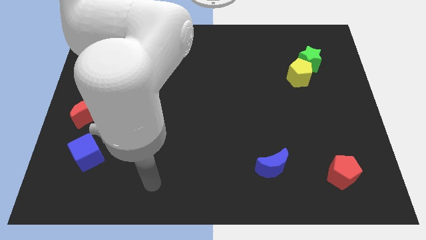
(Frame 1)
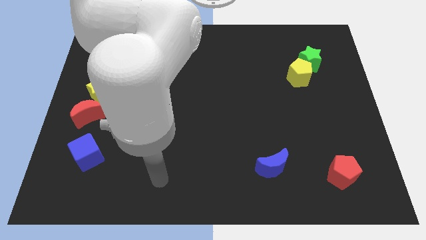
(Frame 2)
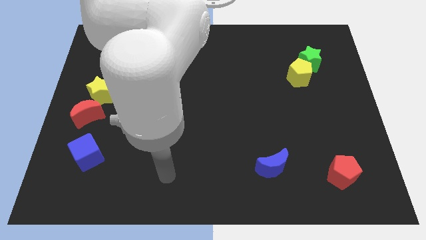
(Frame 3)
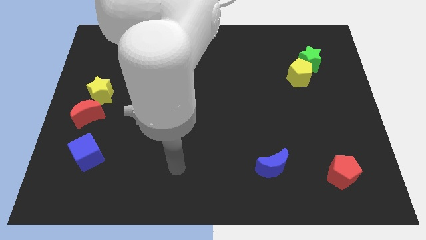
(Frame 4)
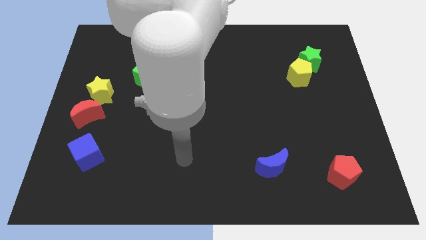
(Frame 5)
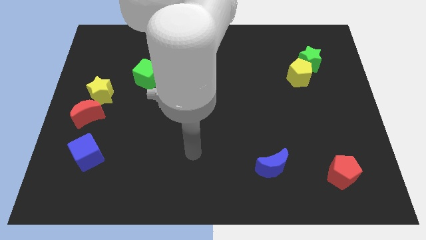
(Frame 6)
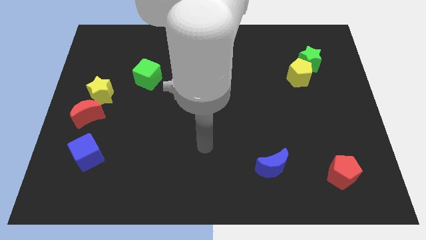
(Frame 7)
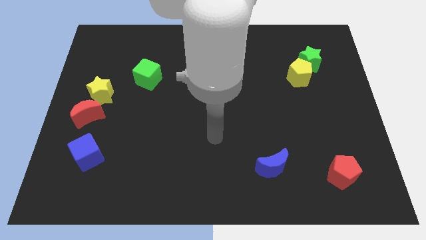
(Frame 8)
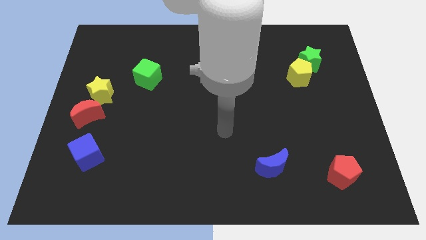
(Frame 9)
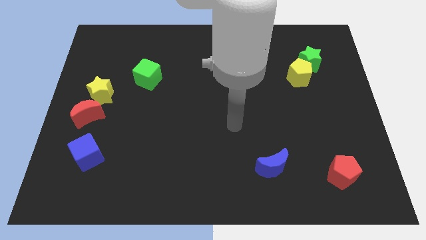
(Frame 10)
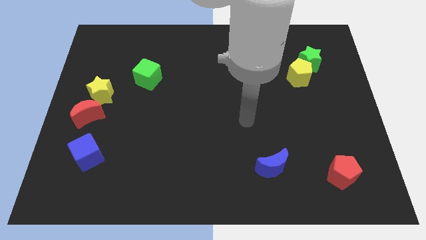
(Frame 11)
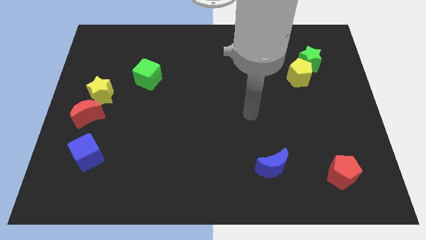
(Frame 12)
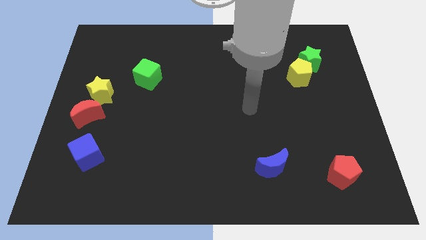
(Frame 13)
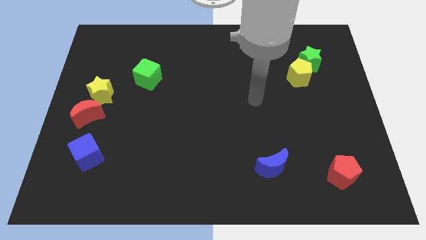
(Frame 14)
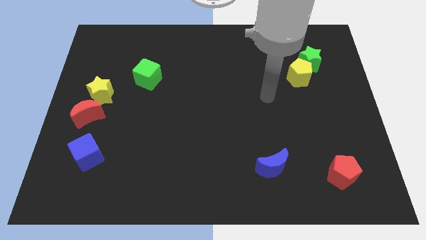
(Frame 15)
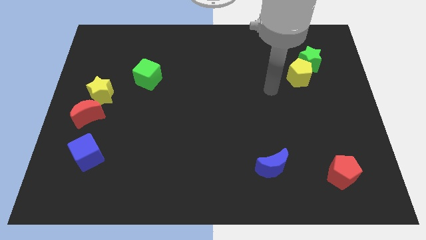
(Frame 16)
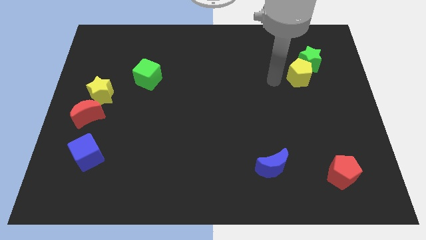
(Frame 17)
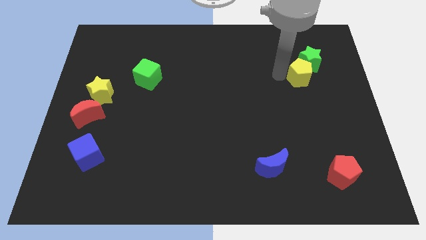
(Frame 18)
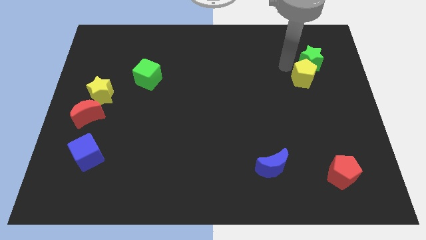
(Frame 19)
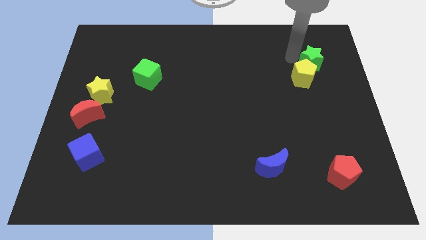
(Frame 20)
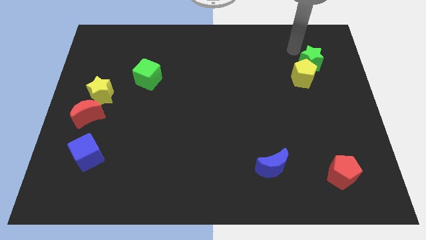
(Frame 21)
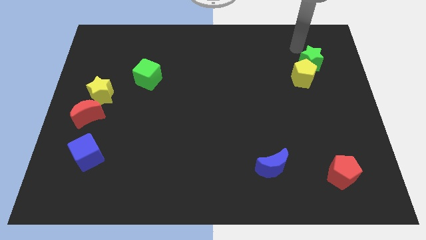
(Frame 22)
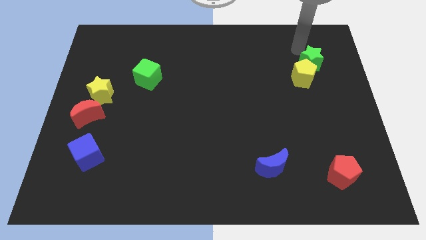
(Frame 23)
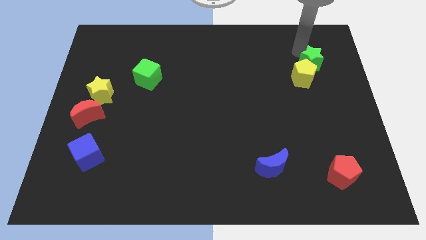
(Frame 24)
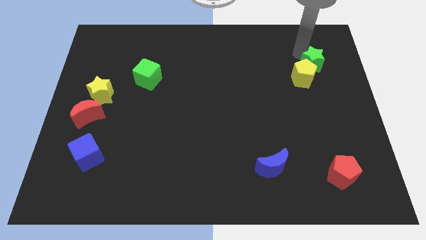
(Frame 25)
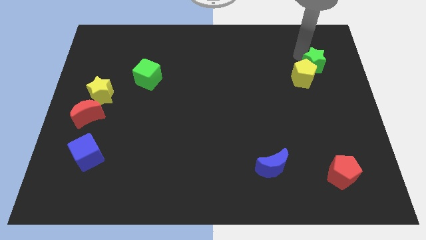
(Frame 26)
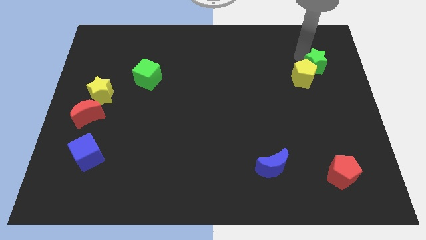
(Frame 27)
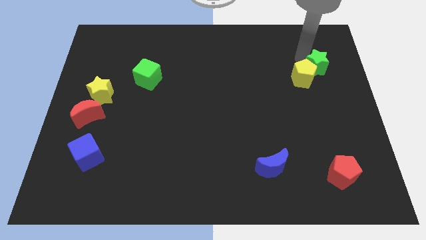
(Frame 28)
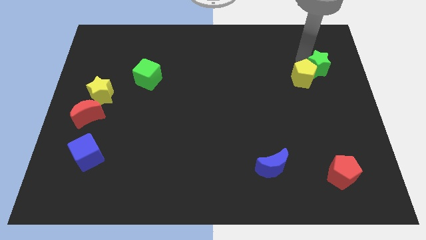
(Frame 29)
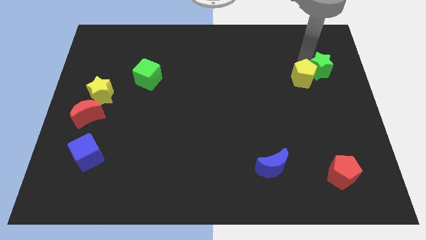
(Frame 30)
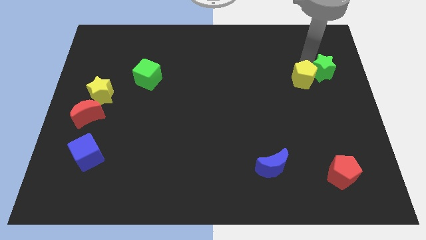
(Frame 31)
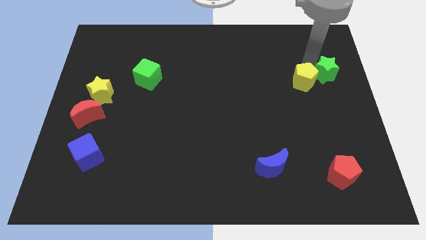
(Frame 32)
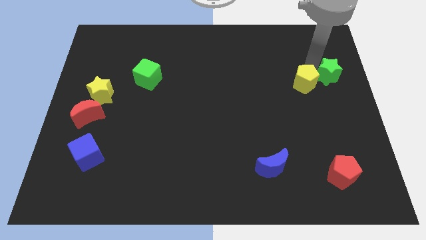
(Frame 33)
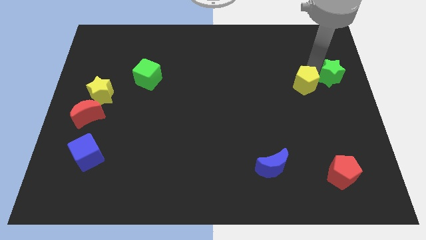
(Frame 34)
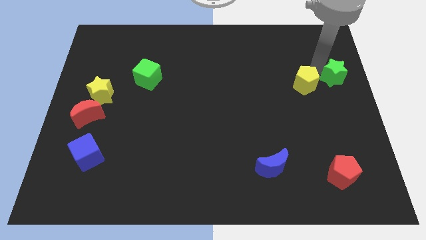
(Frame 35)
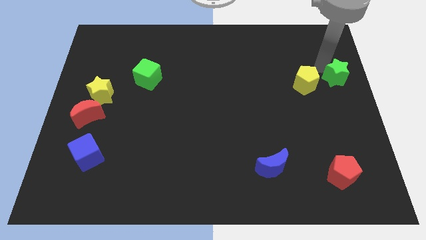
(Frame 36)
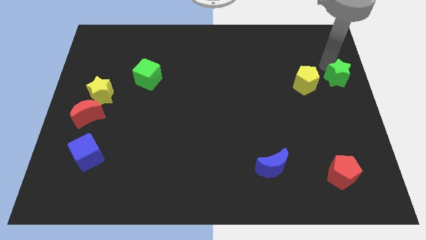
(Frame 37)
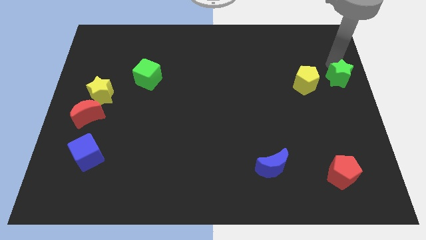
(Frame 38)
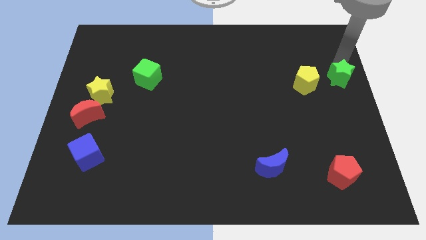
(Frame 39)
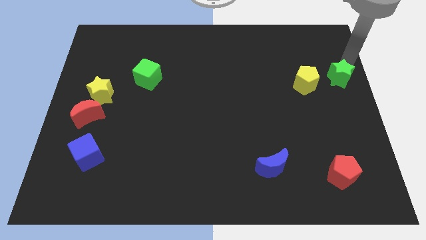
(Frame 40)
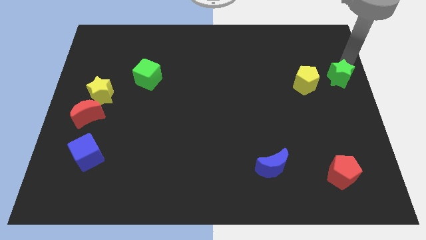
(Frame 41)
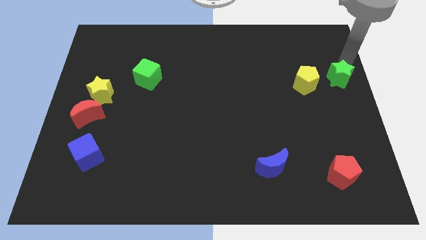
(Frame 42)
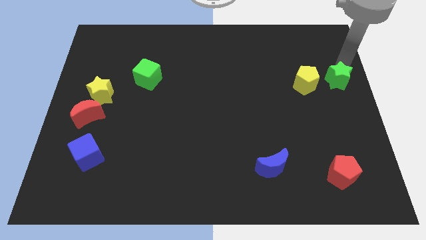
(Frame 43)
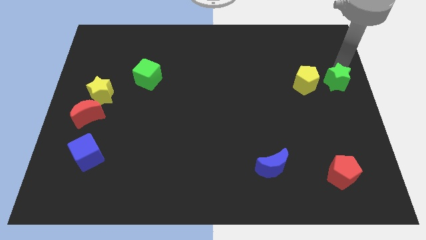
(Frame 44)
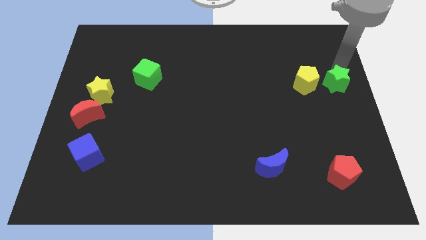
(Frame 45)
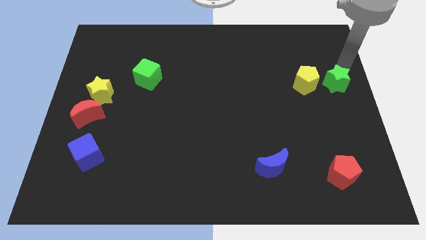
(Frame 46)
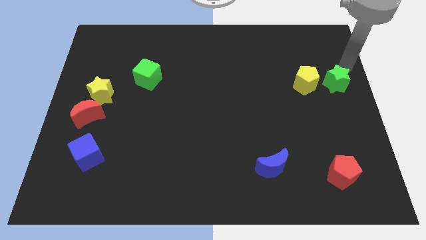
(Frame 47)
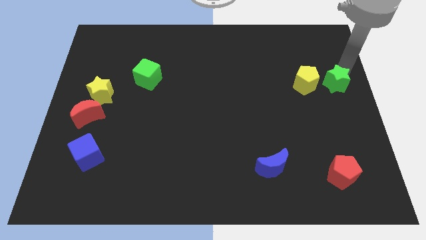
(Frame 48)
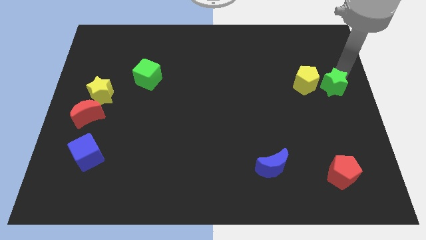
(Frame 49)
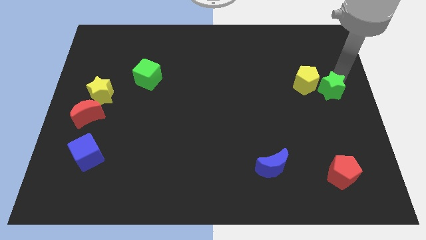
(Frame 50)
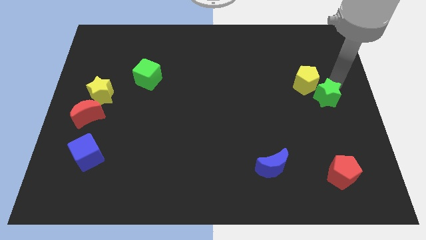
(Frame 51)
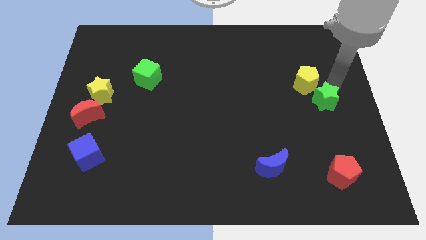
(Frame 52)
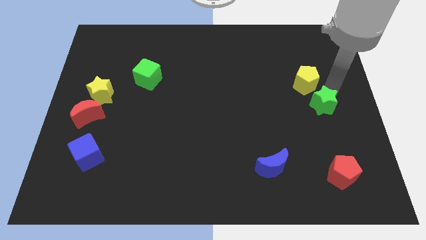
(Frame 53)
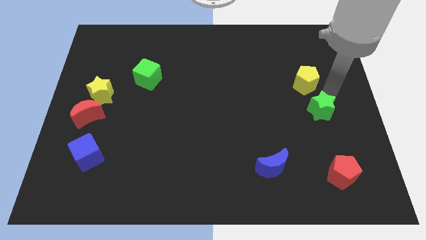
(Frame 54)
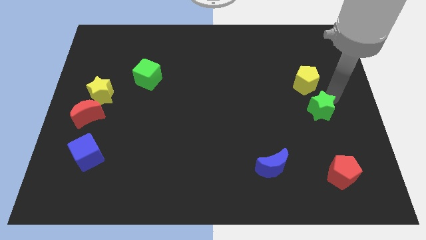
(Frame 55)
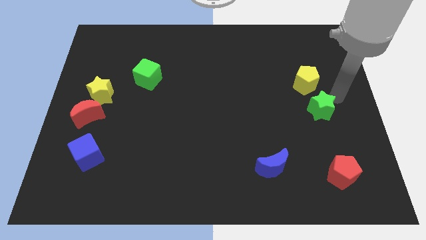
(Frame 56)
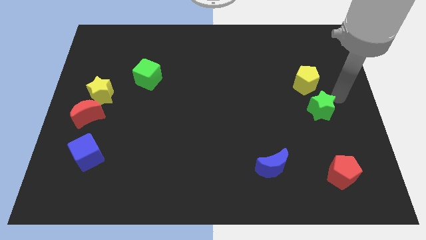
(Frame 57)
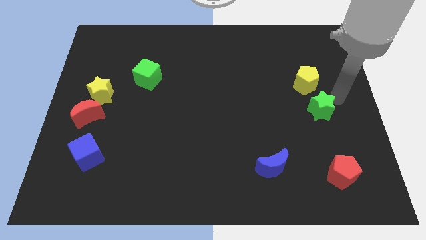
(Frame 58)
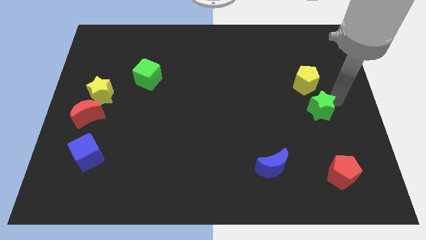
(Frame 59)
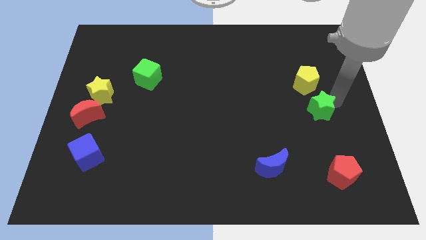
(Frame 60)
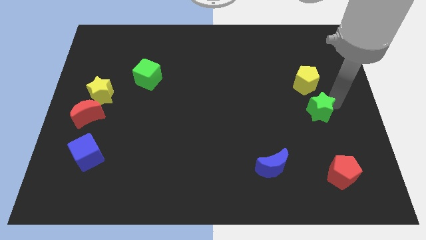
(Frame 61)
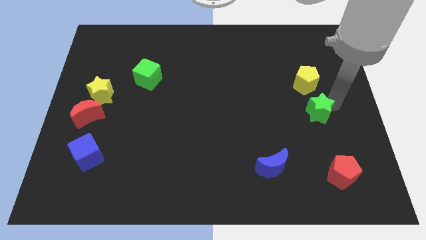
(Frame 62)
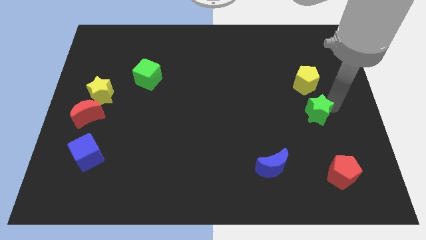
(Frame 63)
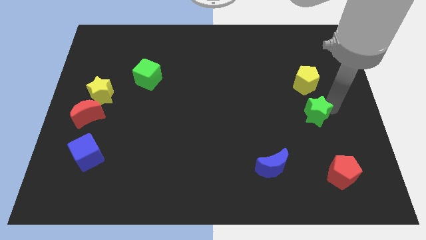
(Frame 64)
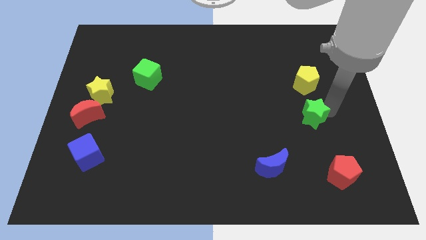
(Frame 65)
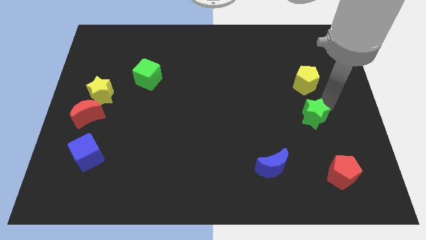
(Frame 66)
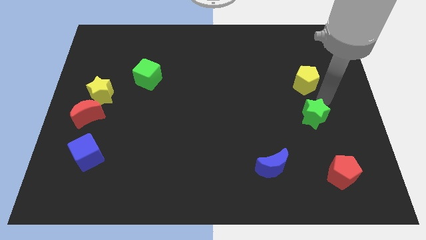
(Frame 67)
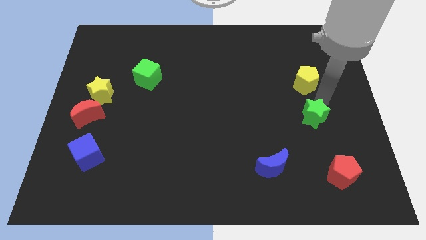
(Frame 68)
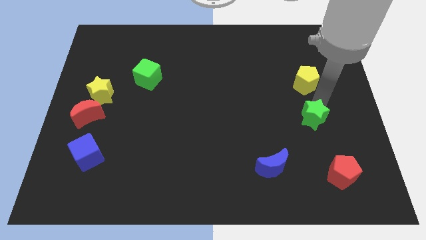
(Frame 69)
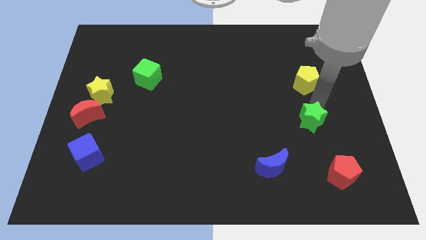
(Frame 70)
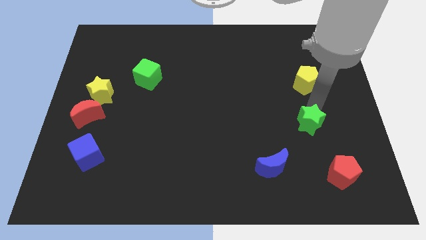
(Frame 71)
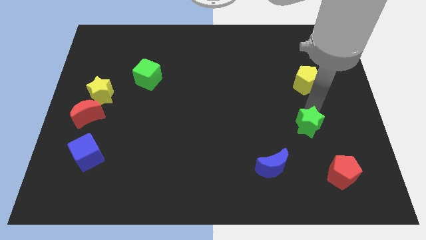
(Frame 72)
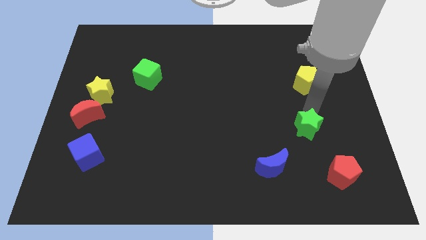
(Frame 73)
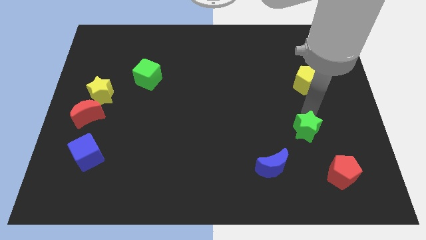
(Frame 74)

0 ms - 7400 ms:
put the green star to the top right side of the blue moon
